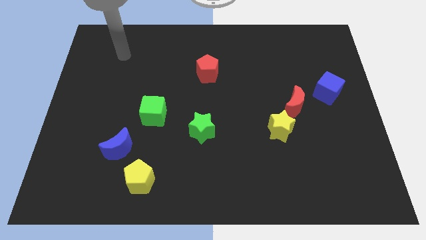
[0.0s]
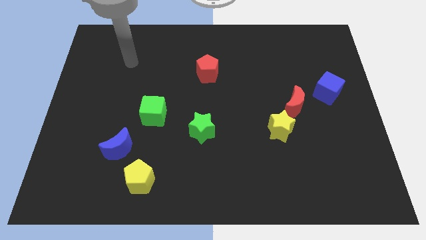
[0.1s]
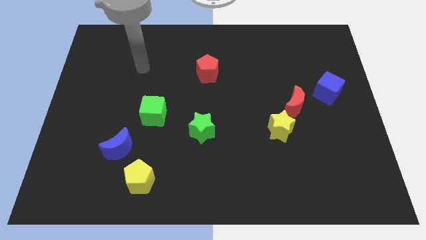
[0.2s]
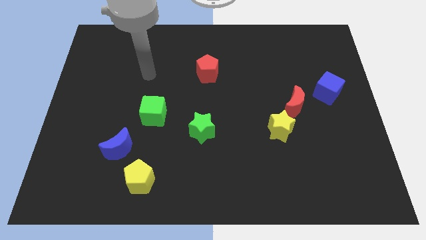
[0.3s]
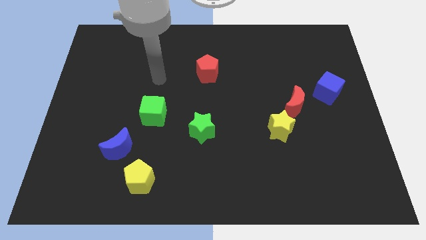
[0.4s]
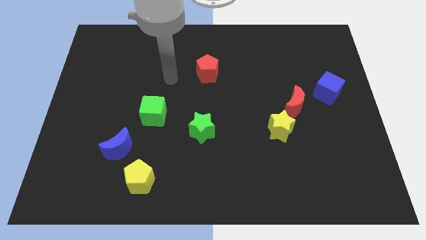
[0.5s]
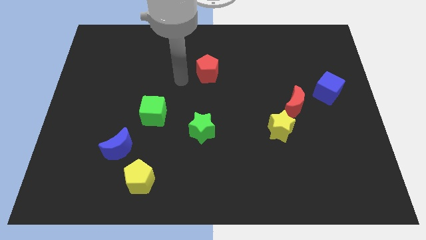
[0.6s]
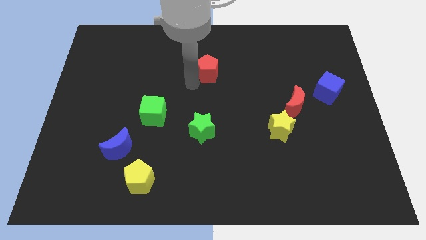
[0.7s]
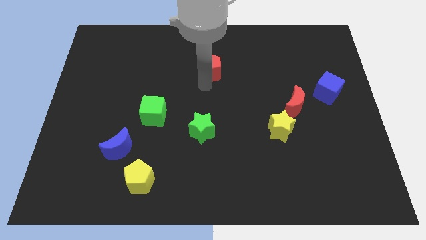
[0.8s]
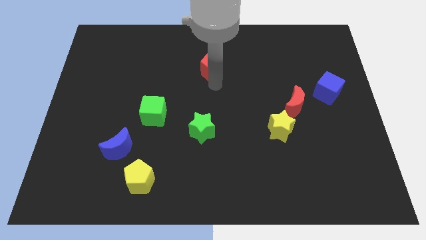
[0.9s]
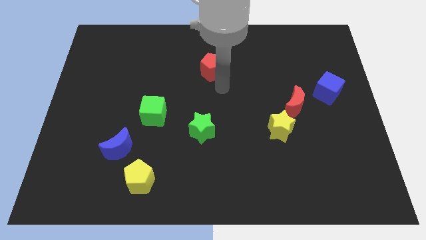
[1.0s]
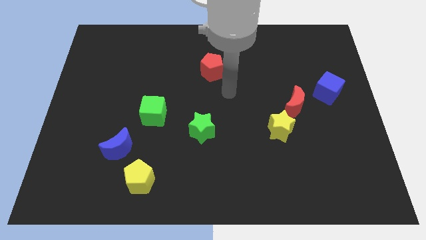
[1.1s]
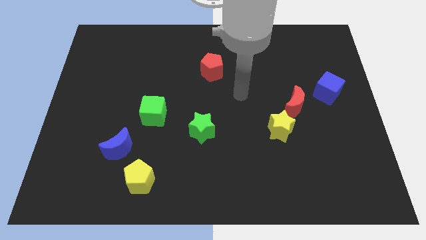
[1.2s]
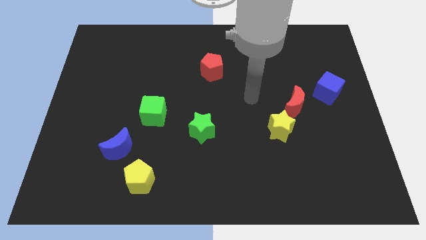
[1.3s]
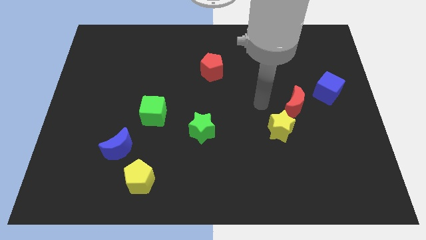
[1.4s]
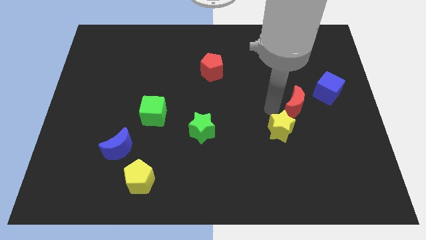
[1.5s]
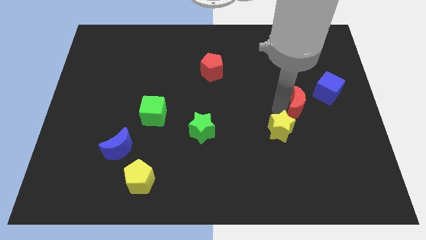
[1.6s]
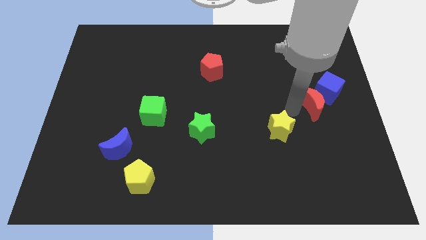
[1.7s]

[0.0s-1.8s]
separate the yellow star from the red moon

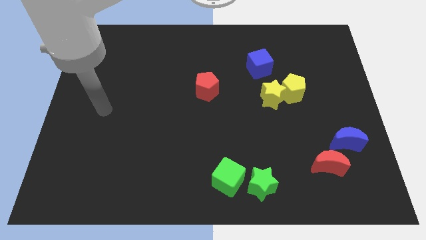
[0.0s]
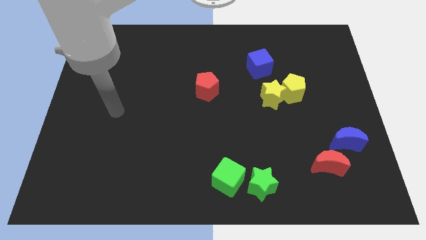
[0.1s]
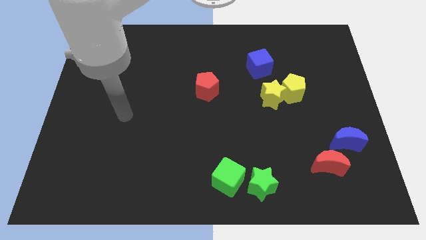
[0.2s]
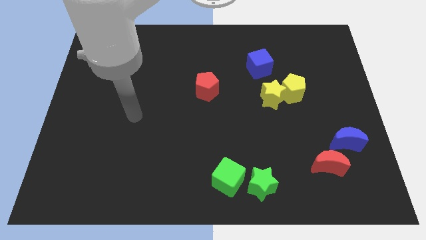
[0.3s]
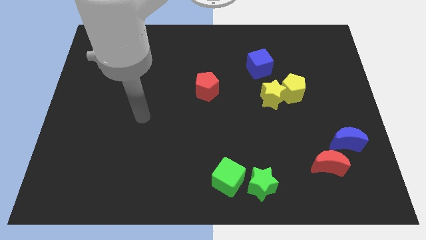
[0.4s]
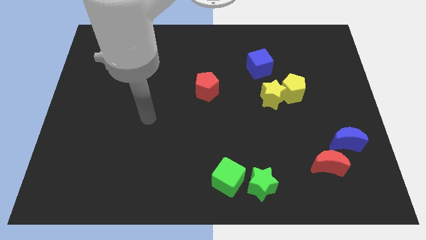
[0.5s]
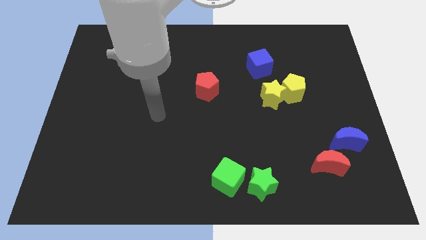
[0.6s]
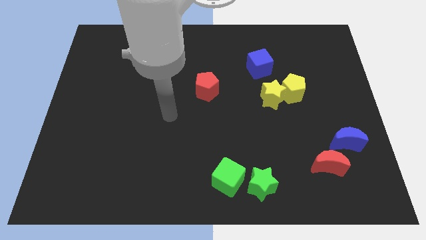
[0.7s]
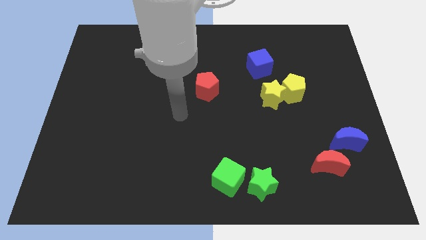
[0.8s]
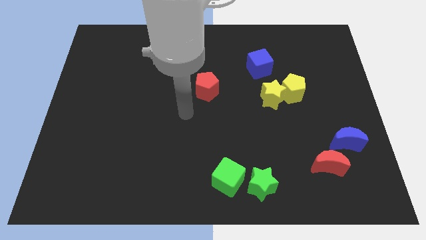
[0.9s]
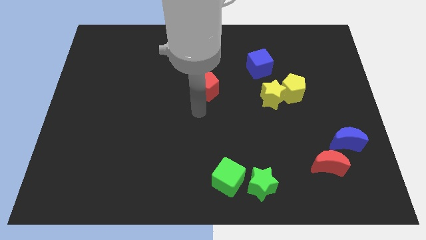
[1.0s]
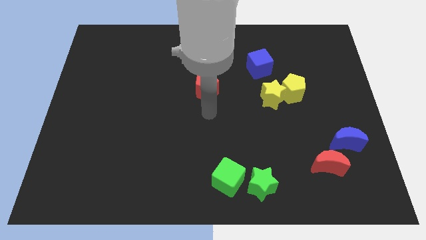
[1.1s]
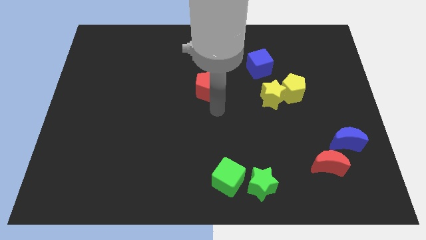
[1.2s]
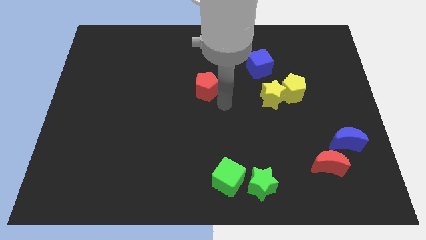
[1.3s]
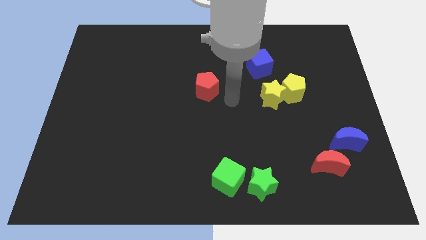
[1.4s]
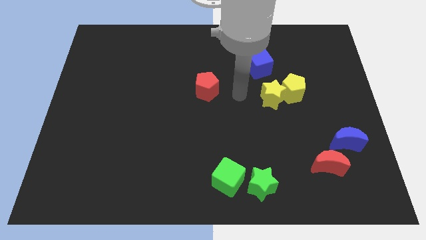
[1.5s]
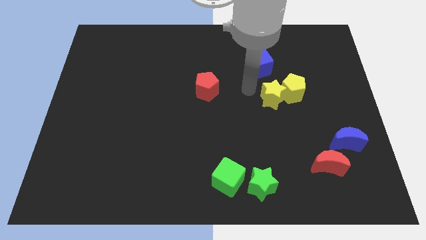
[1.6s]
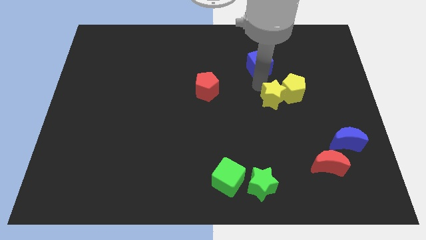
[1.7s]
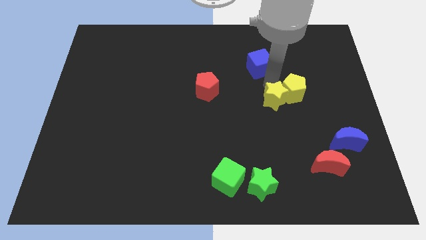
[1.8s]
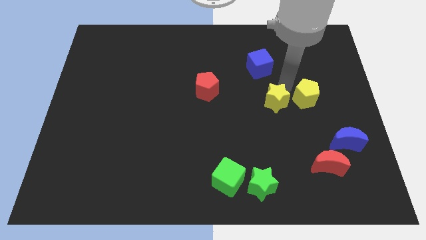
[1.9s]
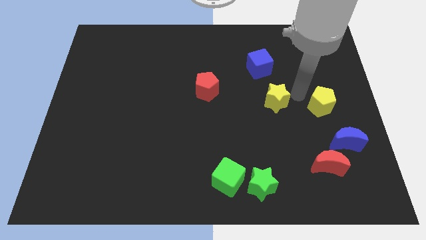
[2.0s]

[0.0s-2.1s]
move the yellow star away from the yellow pentagon

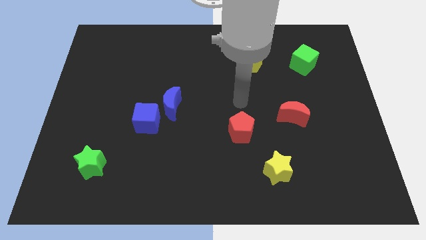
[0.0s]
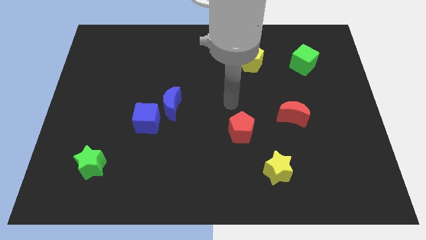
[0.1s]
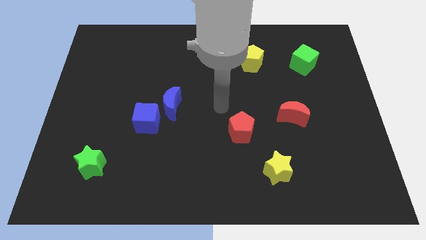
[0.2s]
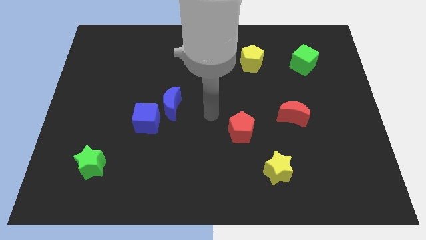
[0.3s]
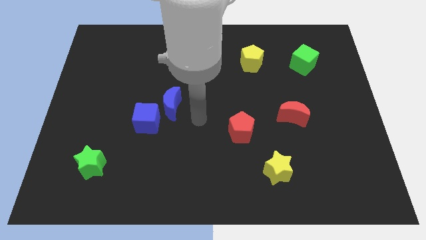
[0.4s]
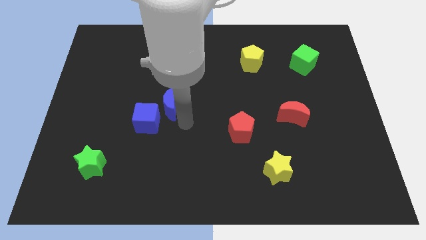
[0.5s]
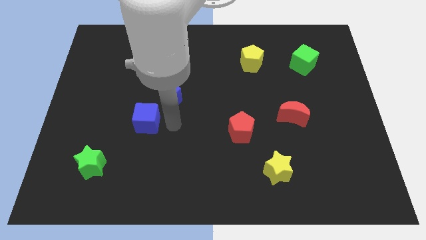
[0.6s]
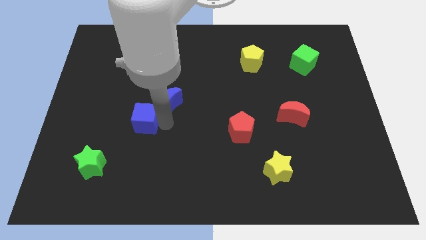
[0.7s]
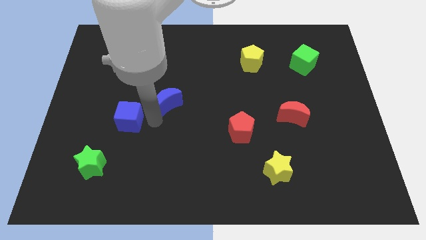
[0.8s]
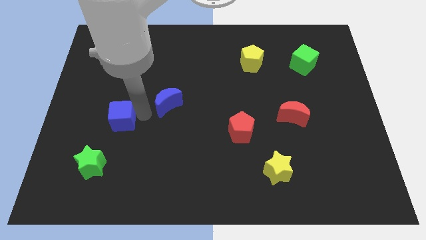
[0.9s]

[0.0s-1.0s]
pull the blue moon apart from the blue cube

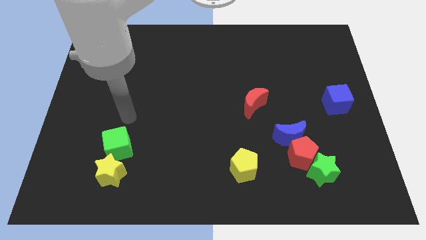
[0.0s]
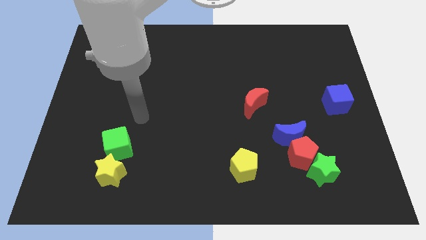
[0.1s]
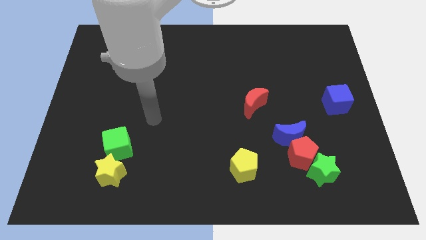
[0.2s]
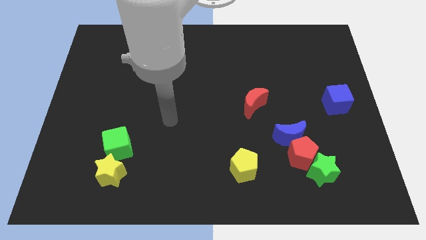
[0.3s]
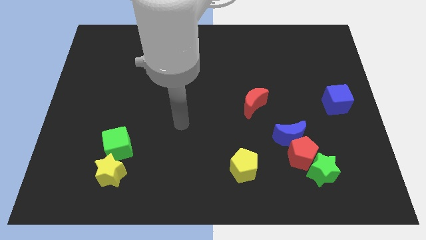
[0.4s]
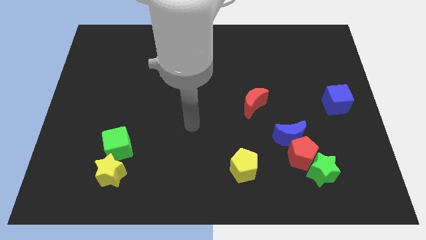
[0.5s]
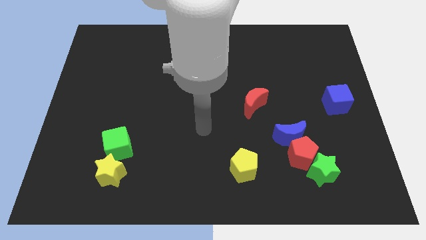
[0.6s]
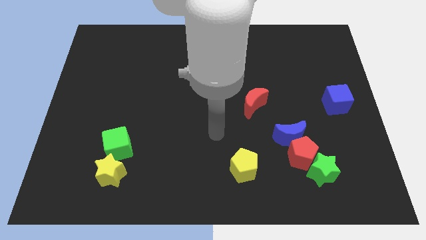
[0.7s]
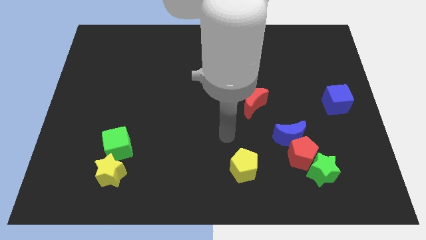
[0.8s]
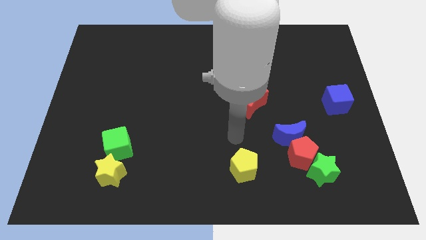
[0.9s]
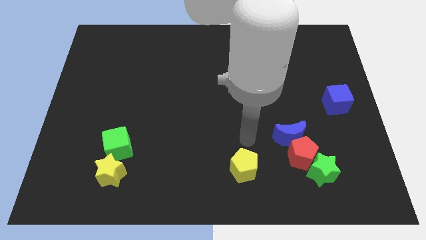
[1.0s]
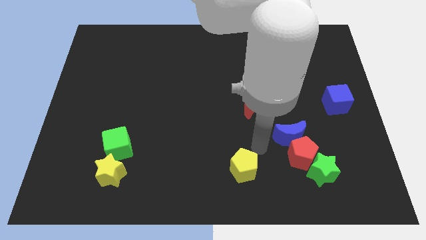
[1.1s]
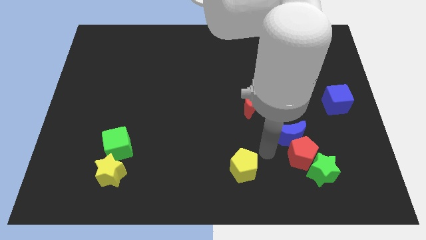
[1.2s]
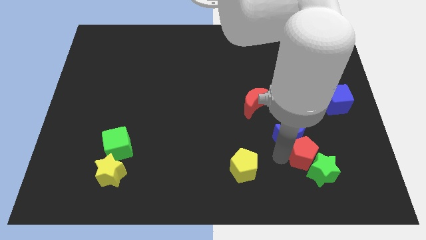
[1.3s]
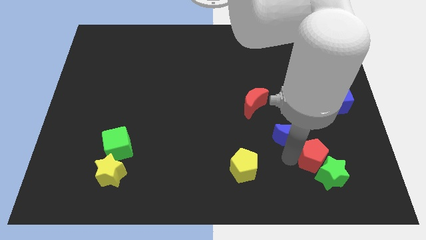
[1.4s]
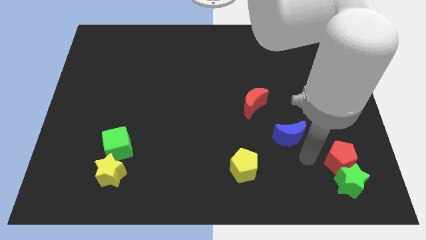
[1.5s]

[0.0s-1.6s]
separate the blue moon from the red pentagon

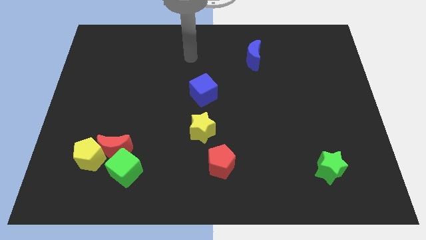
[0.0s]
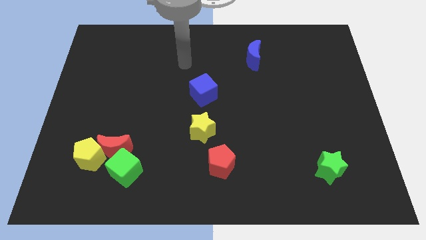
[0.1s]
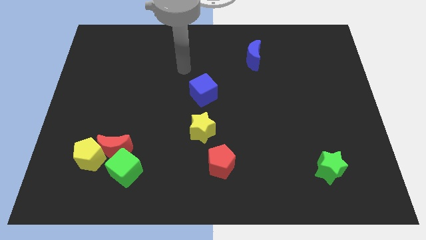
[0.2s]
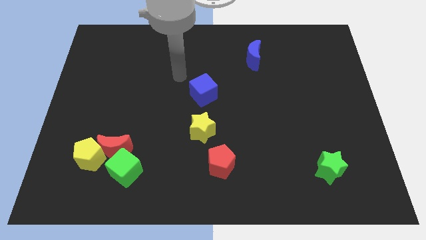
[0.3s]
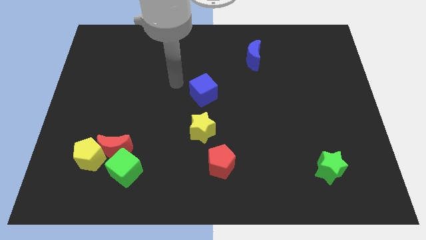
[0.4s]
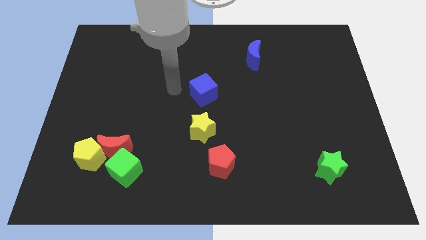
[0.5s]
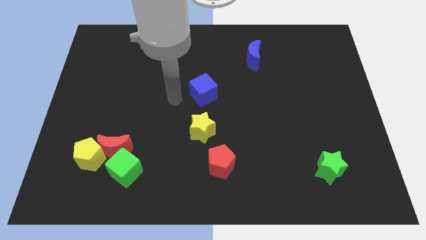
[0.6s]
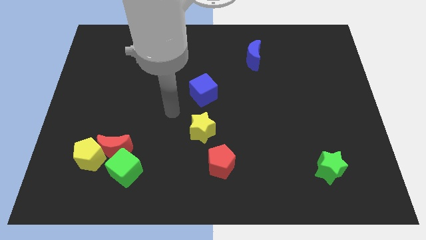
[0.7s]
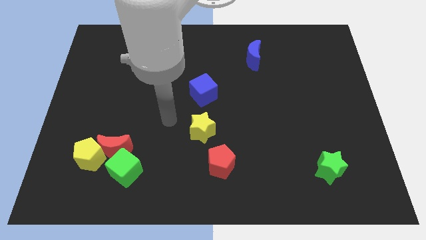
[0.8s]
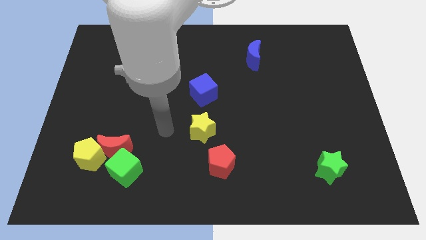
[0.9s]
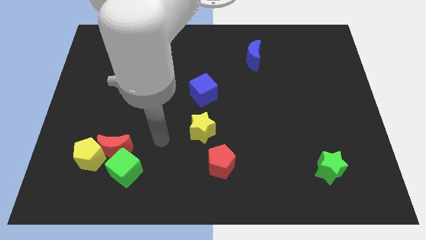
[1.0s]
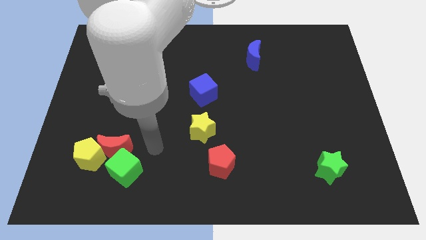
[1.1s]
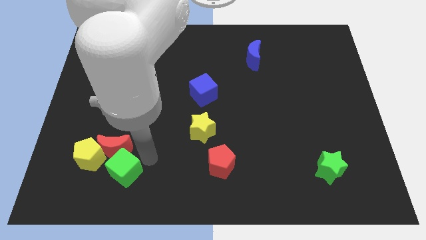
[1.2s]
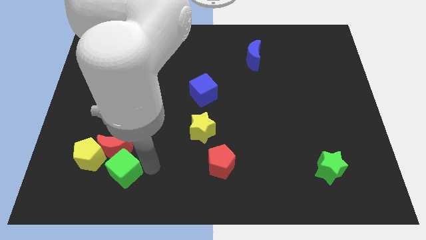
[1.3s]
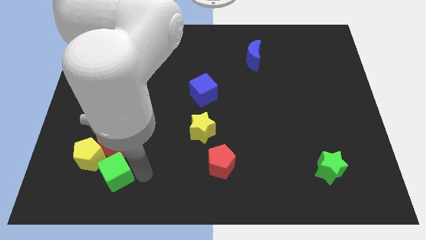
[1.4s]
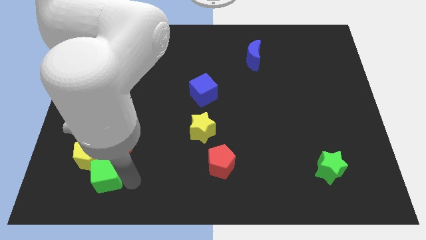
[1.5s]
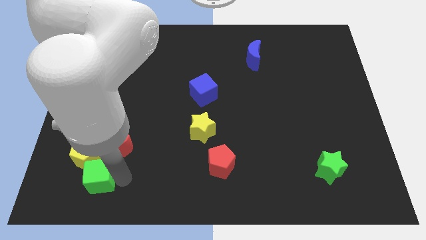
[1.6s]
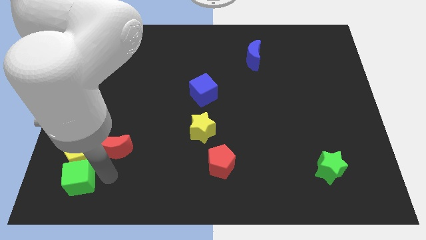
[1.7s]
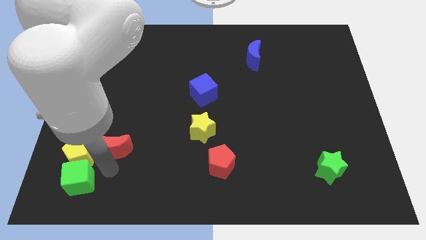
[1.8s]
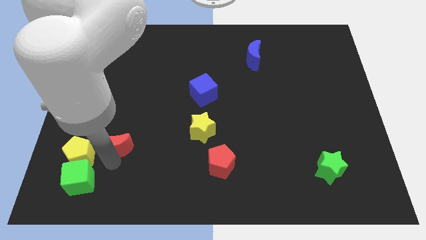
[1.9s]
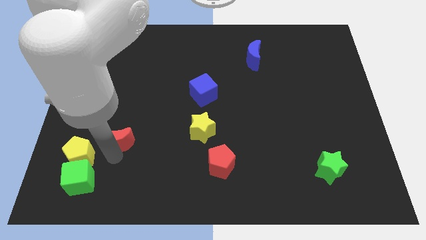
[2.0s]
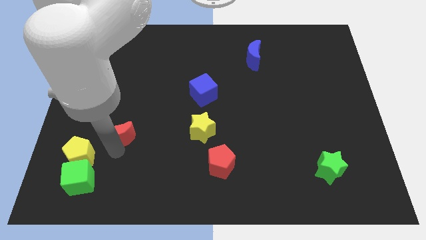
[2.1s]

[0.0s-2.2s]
separate the red moon from the yellow pentagon and green cube

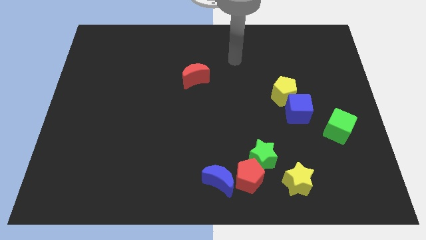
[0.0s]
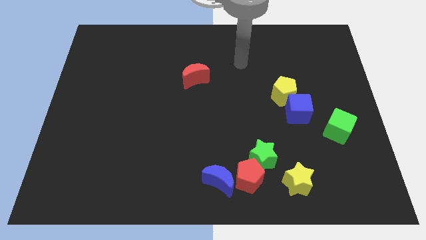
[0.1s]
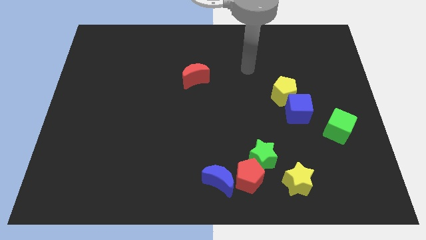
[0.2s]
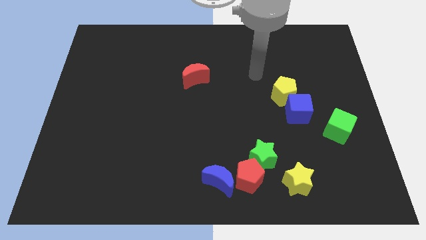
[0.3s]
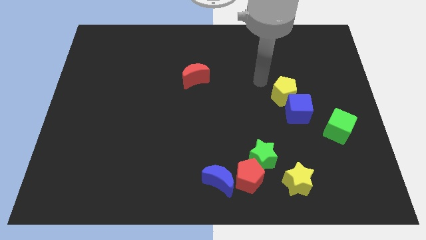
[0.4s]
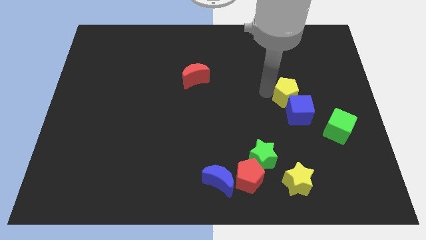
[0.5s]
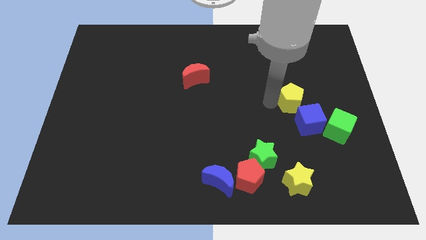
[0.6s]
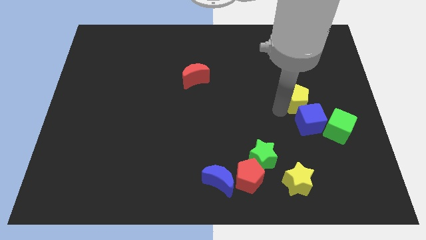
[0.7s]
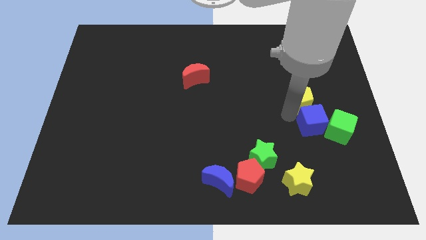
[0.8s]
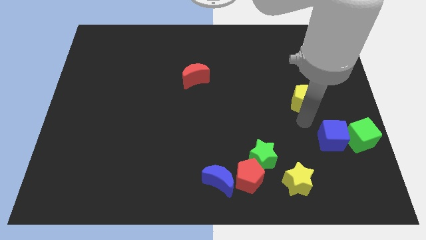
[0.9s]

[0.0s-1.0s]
move the yellow pentagon away from the blue cube
